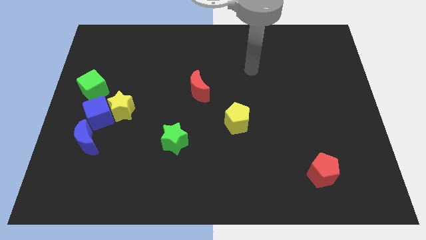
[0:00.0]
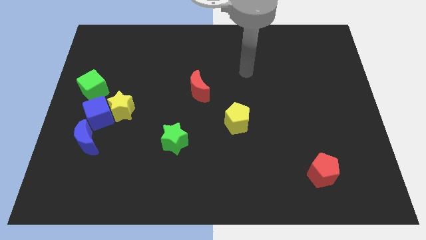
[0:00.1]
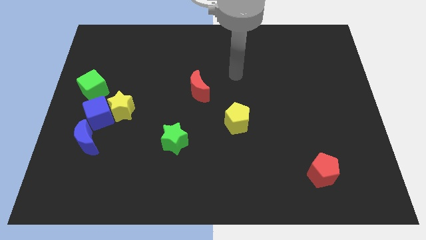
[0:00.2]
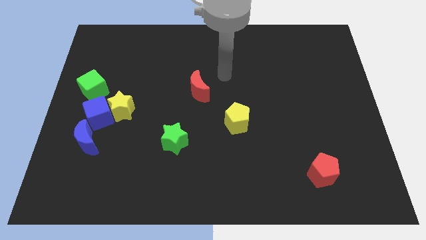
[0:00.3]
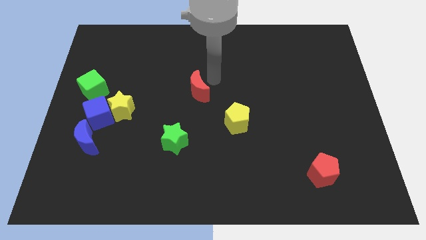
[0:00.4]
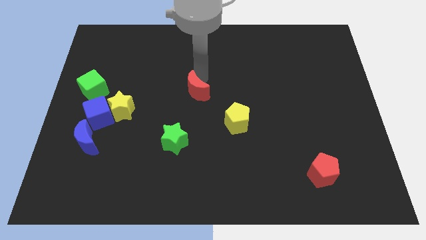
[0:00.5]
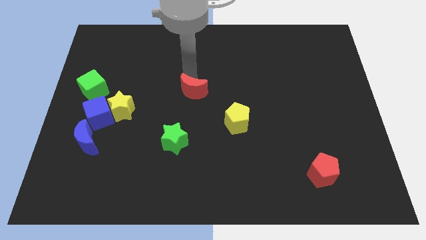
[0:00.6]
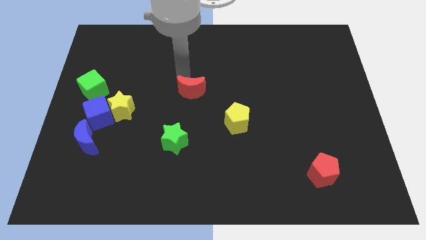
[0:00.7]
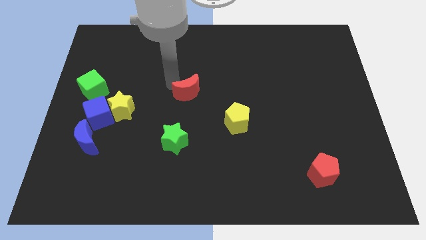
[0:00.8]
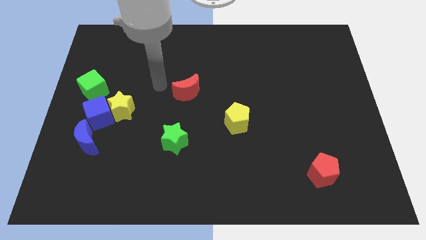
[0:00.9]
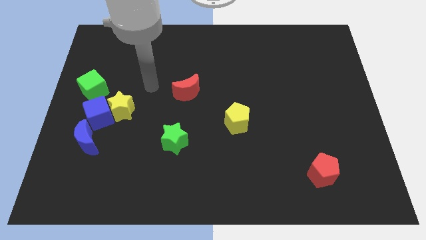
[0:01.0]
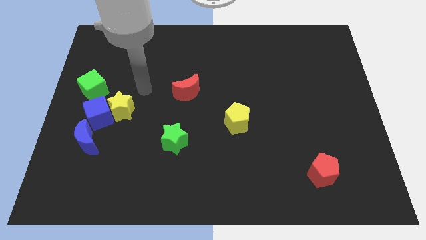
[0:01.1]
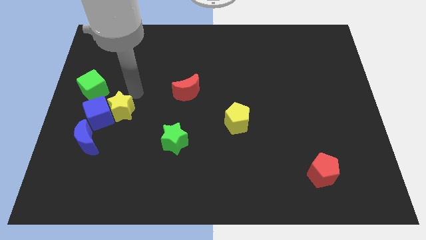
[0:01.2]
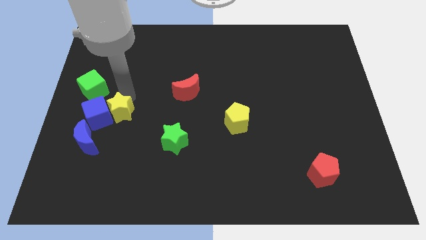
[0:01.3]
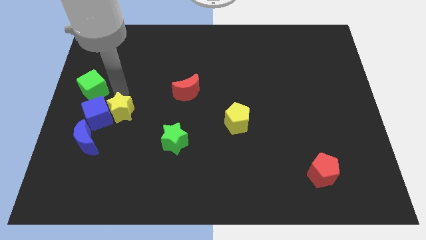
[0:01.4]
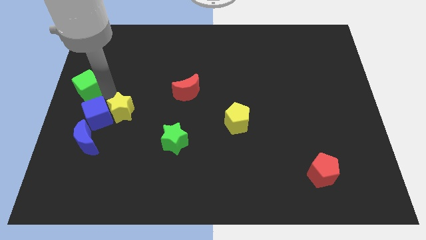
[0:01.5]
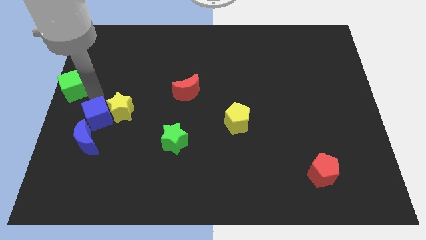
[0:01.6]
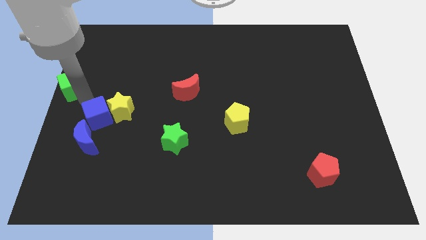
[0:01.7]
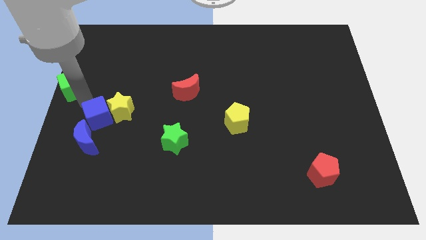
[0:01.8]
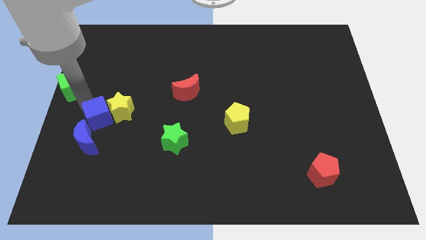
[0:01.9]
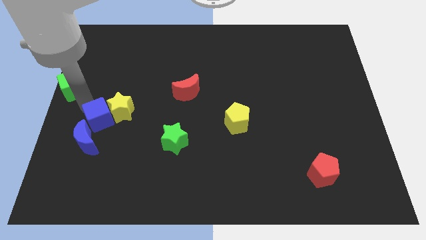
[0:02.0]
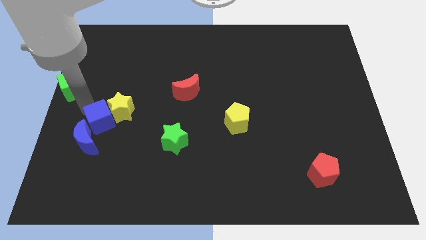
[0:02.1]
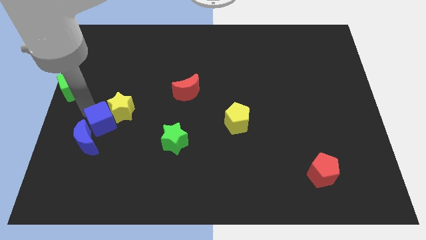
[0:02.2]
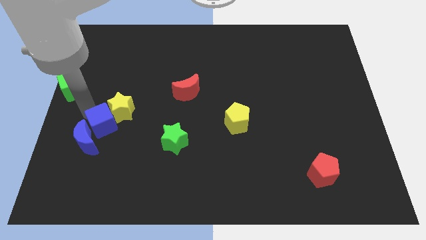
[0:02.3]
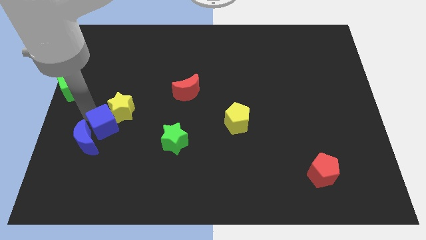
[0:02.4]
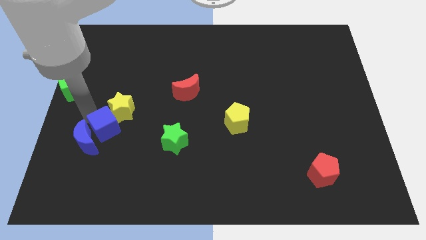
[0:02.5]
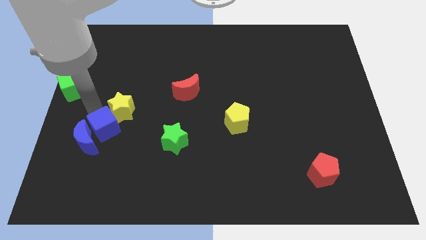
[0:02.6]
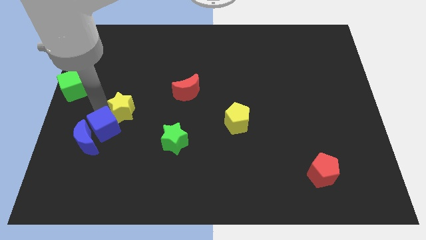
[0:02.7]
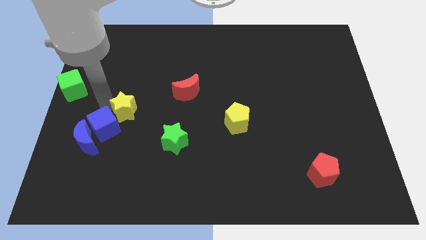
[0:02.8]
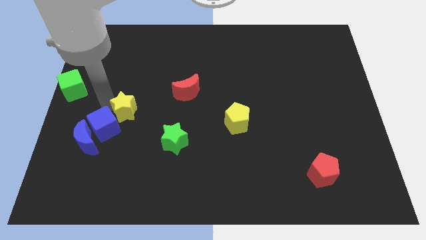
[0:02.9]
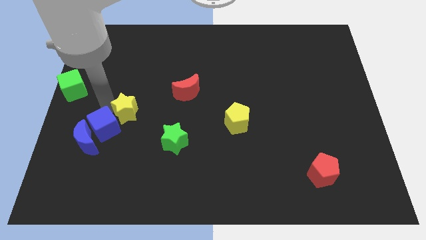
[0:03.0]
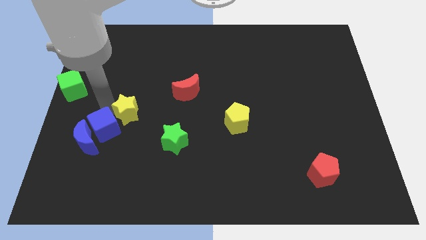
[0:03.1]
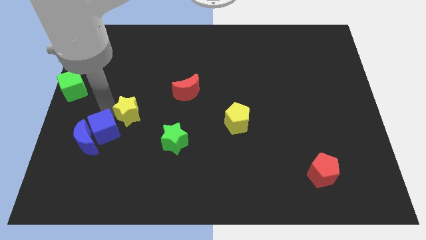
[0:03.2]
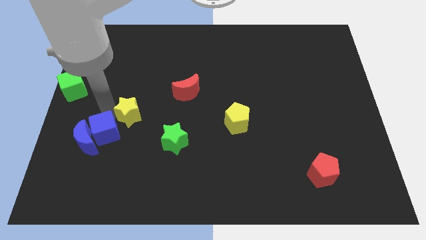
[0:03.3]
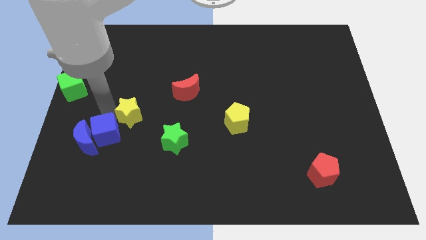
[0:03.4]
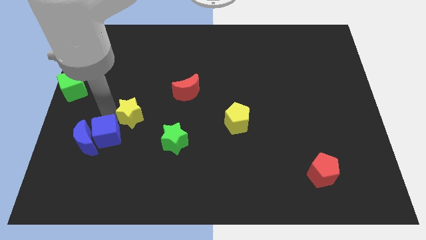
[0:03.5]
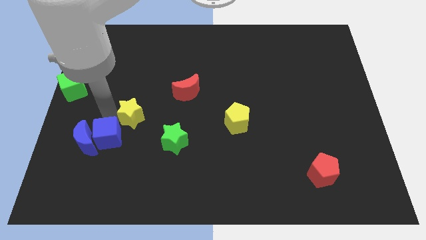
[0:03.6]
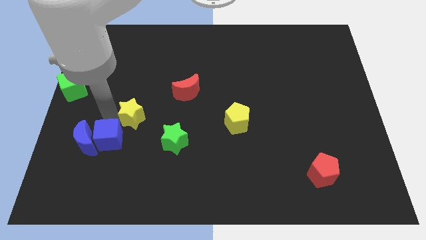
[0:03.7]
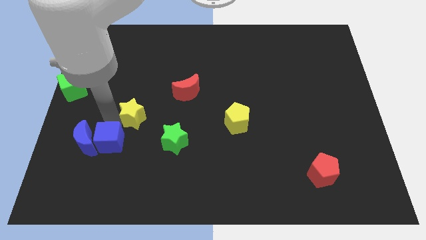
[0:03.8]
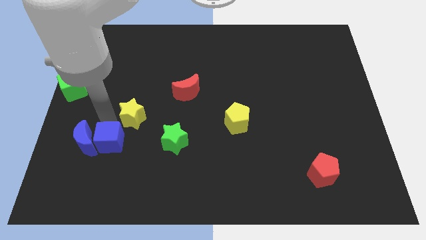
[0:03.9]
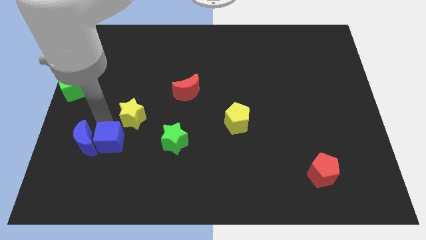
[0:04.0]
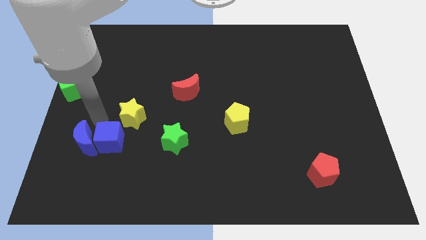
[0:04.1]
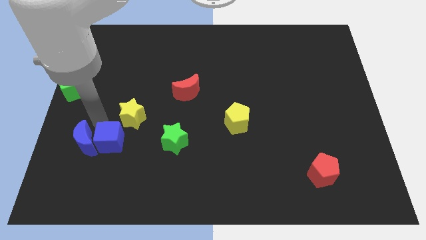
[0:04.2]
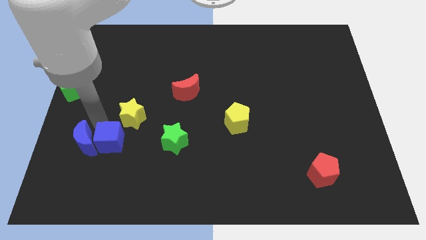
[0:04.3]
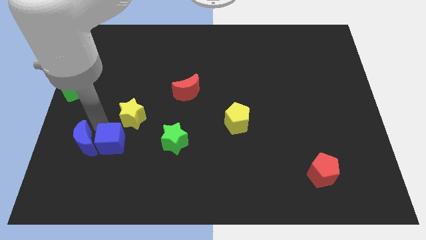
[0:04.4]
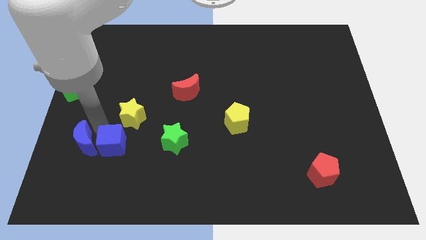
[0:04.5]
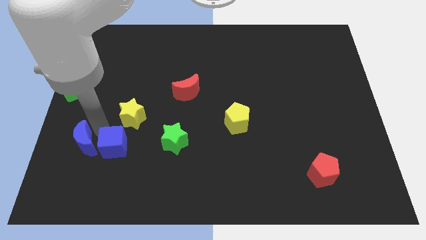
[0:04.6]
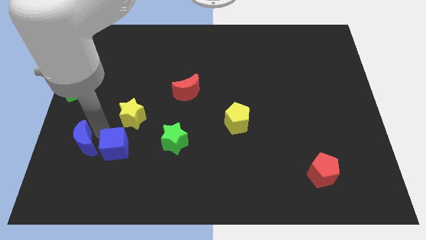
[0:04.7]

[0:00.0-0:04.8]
move the blue cube away from the clump

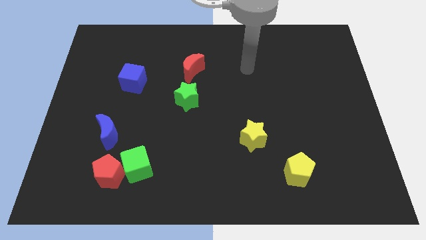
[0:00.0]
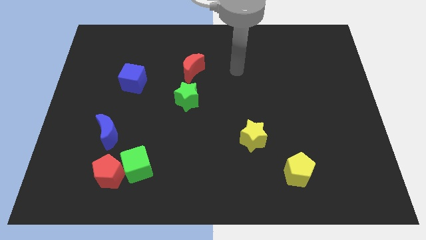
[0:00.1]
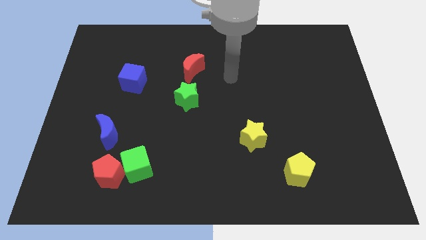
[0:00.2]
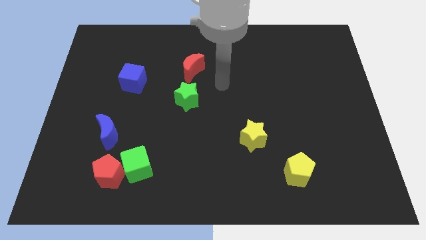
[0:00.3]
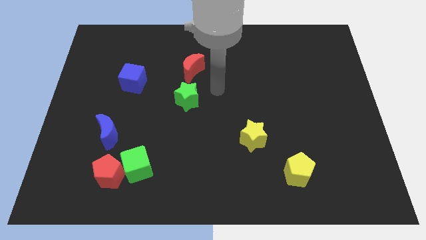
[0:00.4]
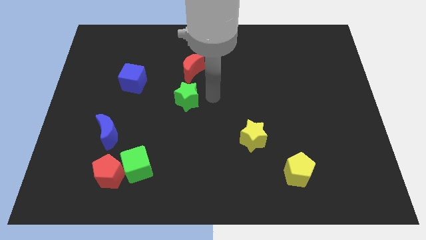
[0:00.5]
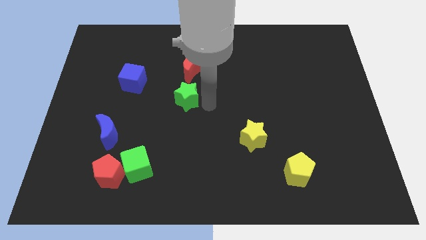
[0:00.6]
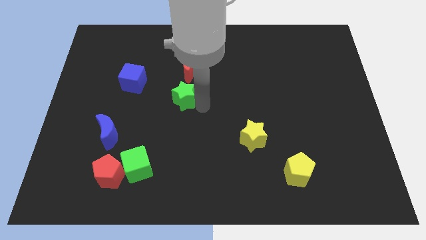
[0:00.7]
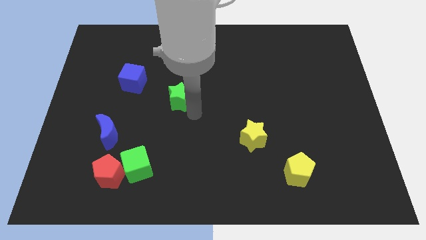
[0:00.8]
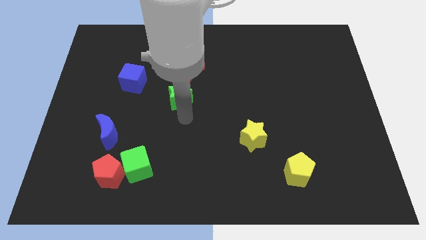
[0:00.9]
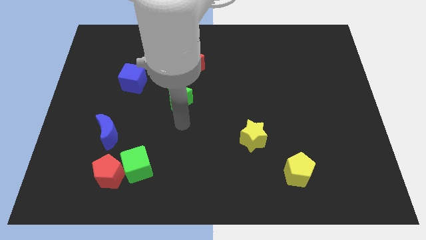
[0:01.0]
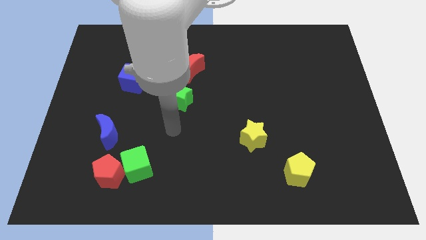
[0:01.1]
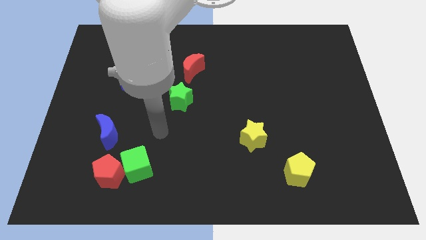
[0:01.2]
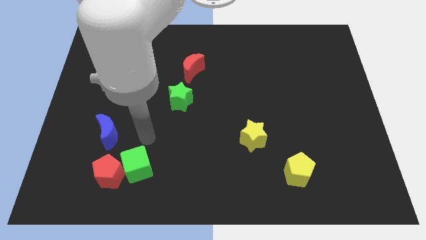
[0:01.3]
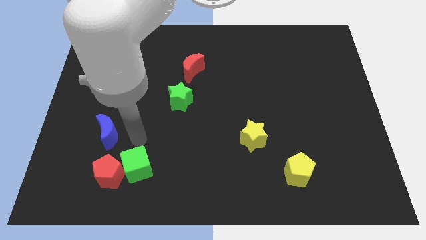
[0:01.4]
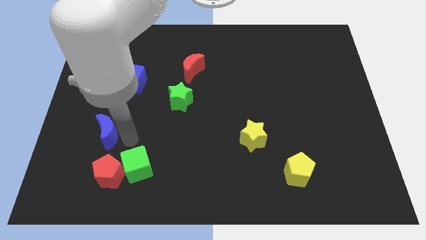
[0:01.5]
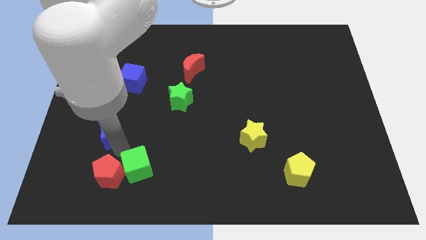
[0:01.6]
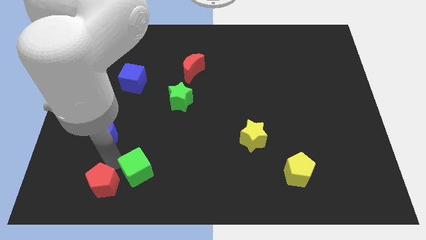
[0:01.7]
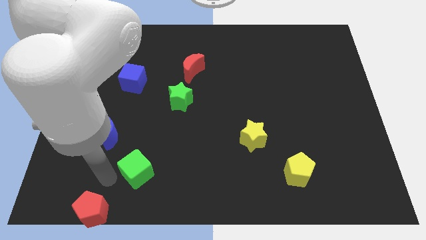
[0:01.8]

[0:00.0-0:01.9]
pull the green cube apart from the red pentagon

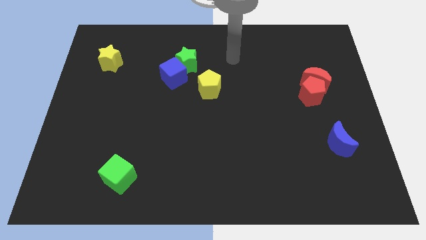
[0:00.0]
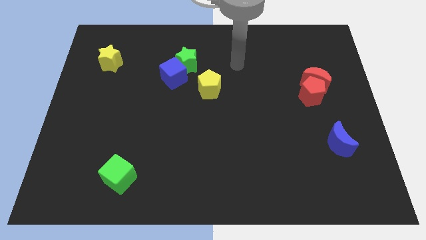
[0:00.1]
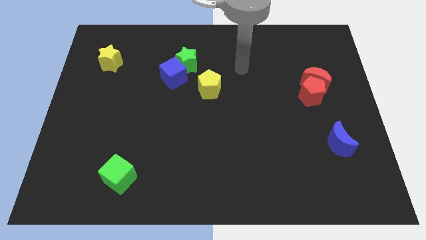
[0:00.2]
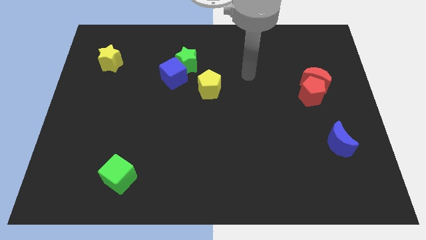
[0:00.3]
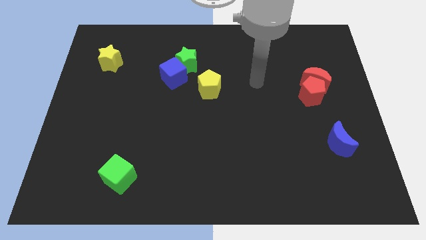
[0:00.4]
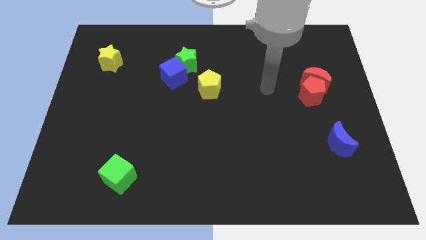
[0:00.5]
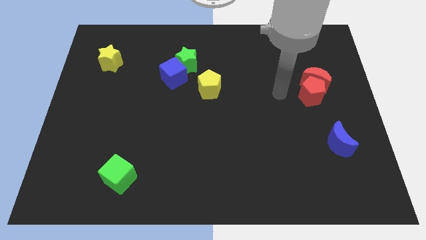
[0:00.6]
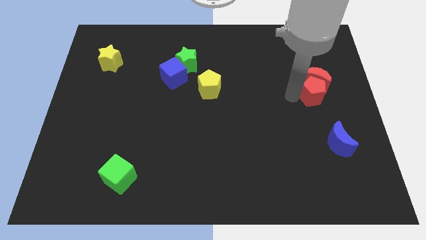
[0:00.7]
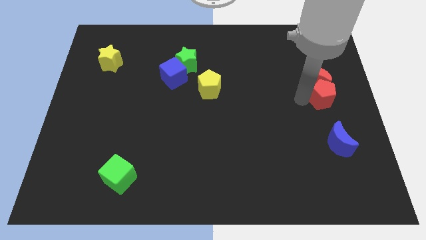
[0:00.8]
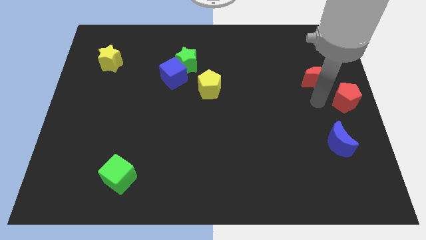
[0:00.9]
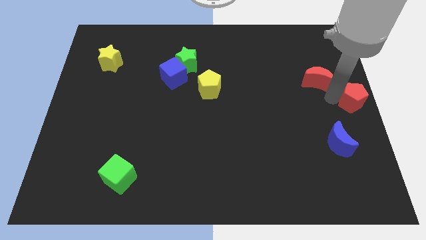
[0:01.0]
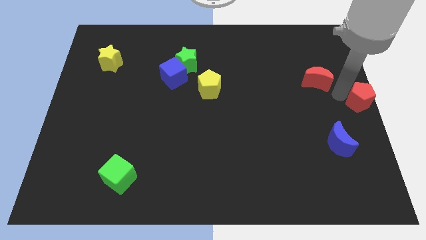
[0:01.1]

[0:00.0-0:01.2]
move the red moon away from the red pentagon

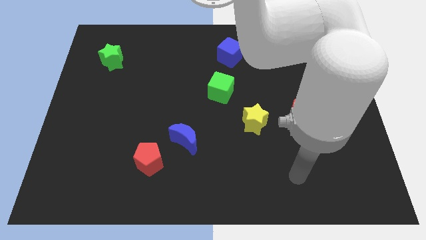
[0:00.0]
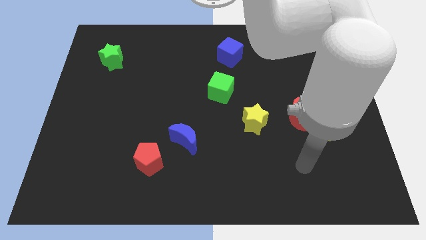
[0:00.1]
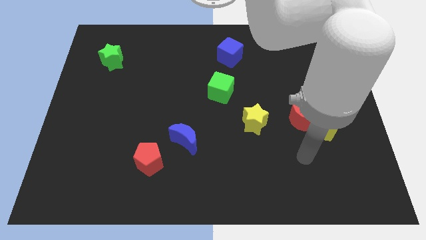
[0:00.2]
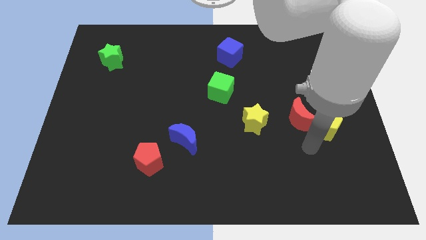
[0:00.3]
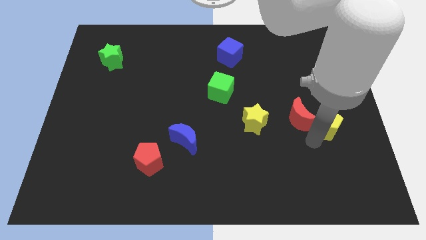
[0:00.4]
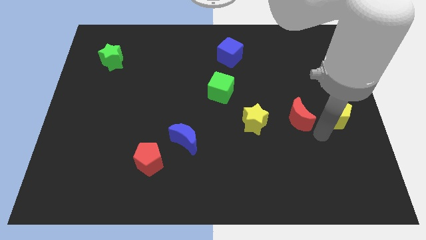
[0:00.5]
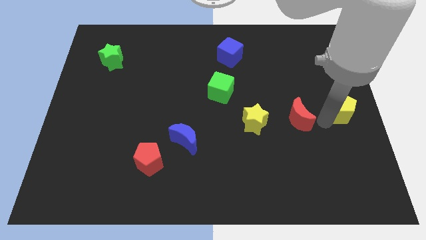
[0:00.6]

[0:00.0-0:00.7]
separate the red moon from the yellow pentagon

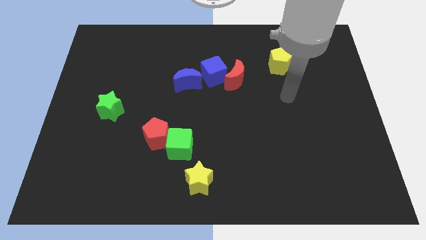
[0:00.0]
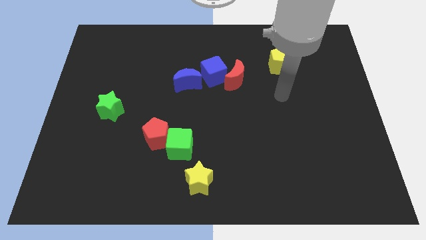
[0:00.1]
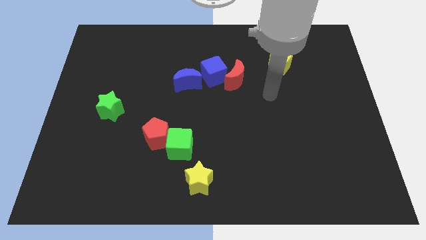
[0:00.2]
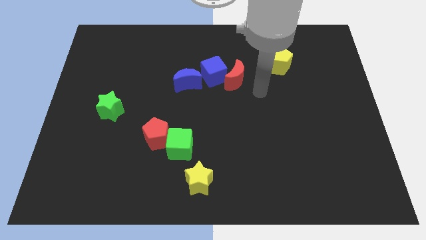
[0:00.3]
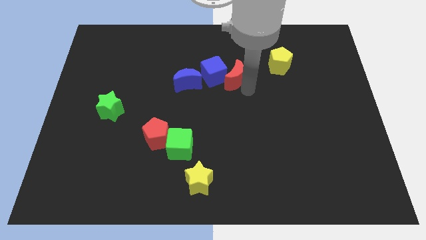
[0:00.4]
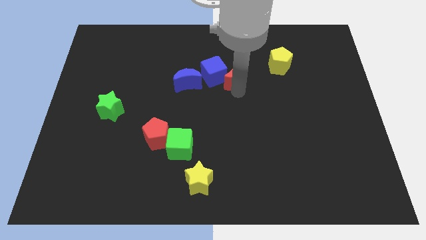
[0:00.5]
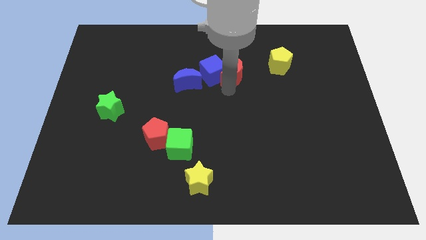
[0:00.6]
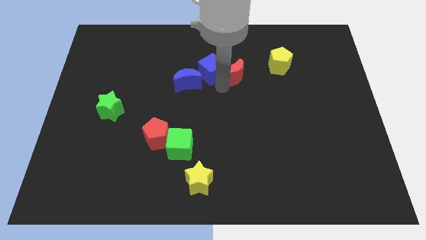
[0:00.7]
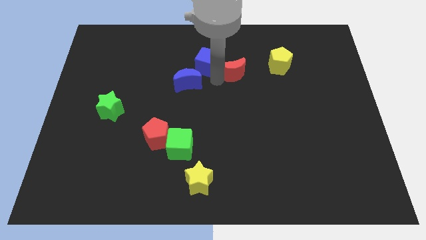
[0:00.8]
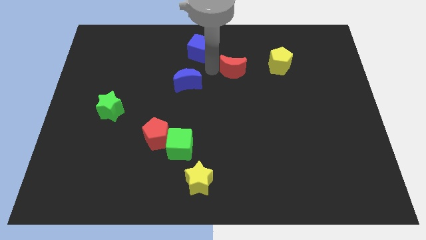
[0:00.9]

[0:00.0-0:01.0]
pull the red moon apart from the blue cube
